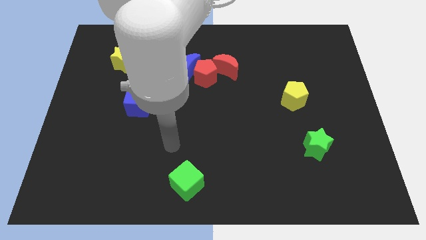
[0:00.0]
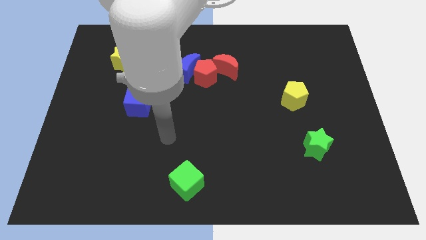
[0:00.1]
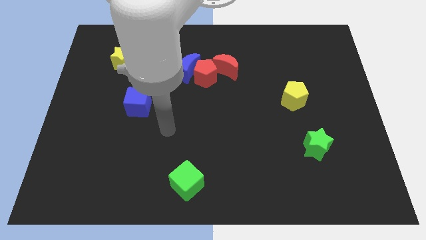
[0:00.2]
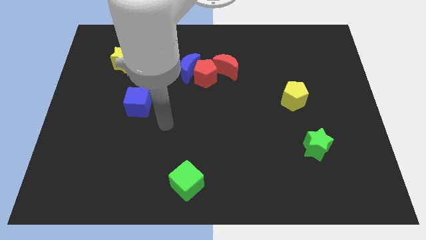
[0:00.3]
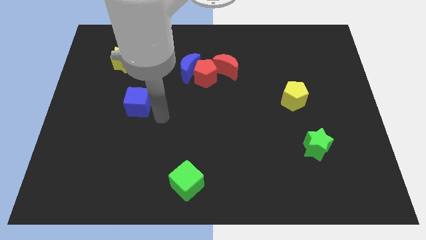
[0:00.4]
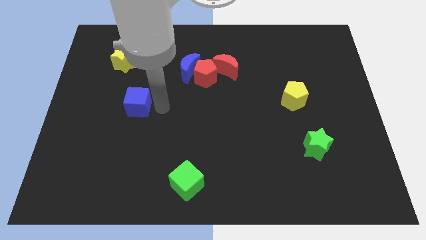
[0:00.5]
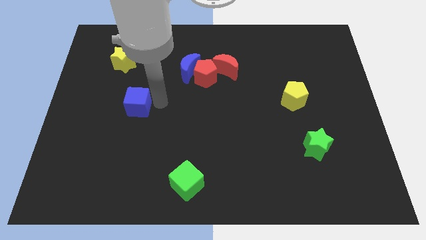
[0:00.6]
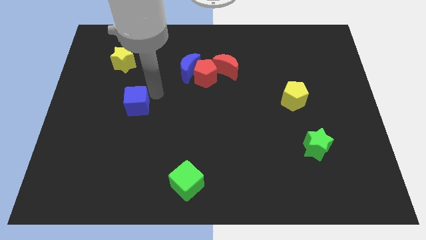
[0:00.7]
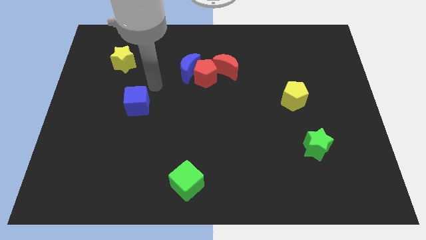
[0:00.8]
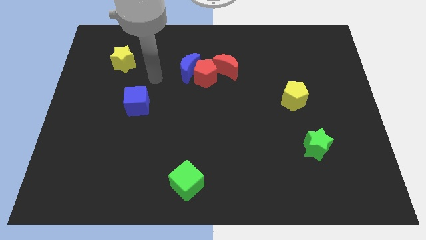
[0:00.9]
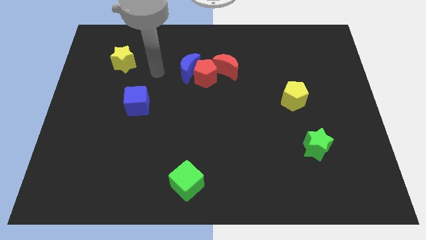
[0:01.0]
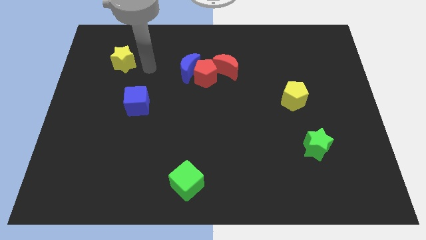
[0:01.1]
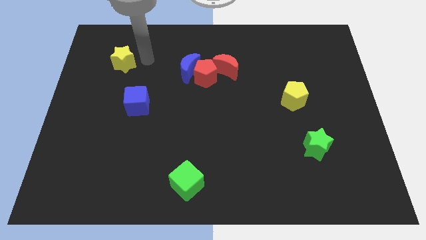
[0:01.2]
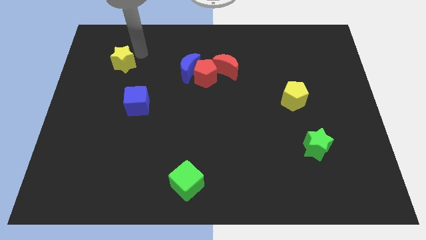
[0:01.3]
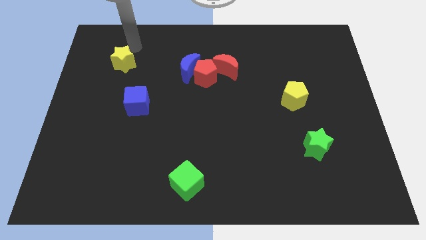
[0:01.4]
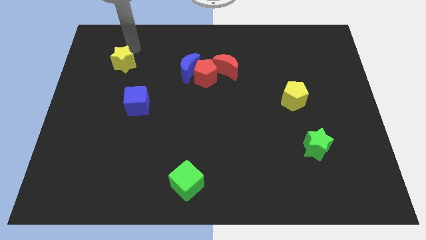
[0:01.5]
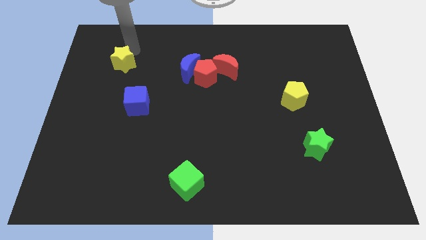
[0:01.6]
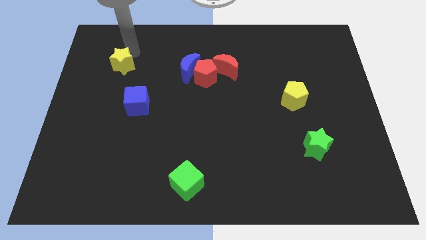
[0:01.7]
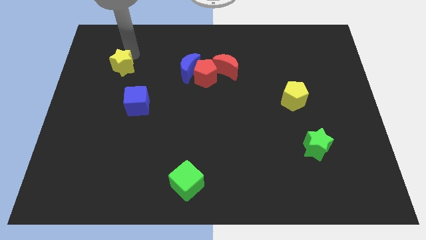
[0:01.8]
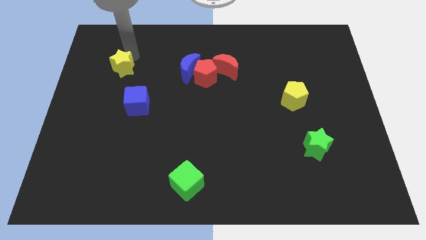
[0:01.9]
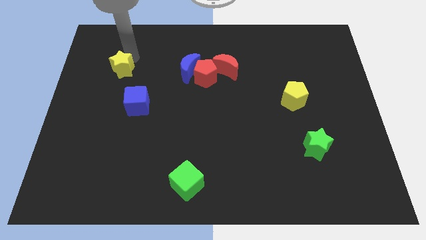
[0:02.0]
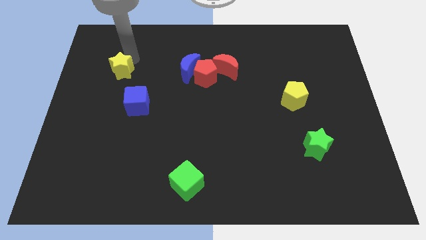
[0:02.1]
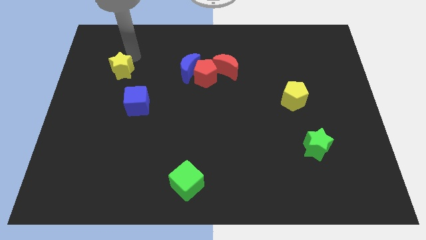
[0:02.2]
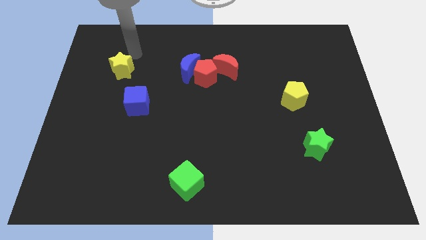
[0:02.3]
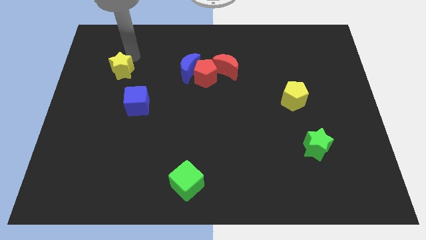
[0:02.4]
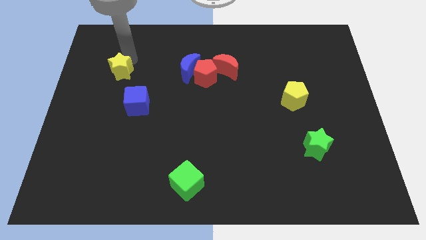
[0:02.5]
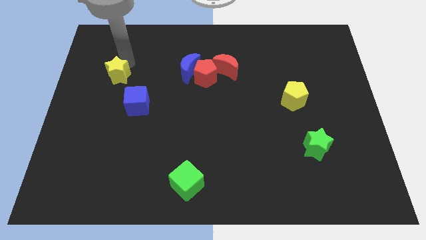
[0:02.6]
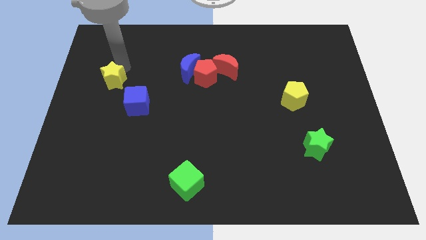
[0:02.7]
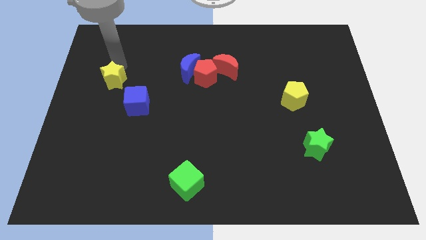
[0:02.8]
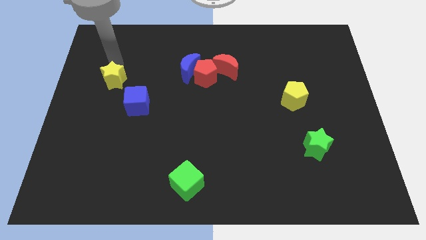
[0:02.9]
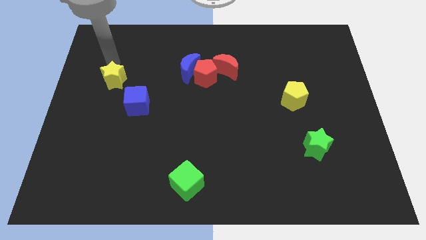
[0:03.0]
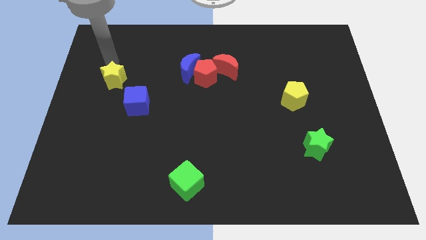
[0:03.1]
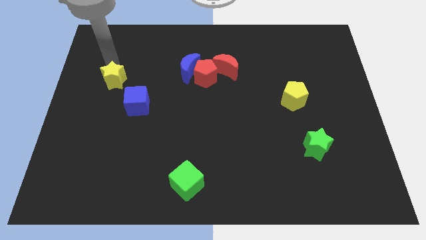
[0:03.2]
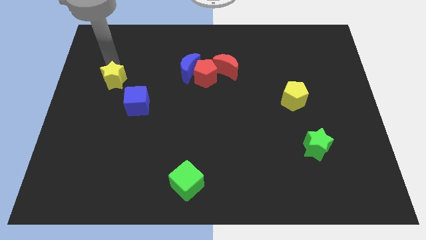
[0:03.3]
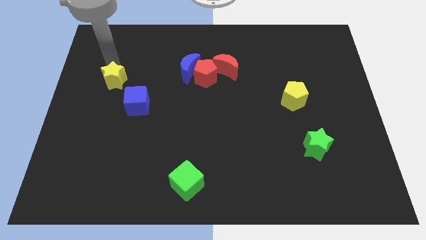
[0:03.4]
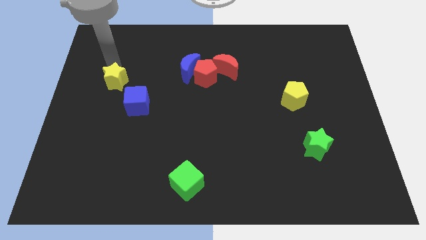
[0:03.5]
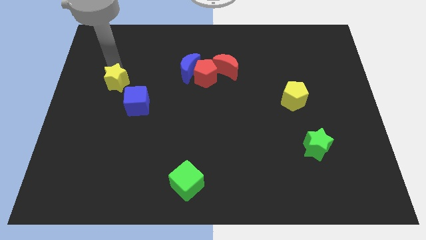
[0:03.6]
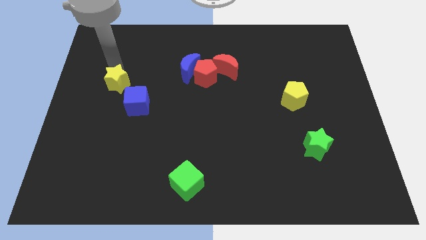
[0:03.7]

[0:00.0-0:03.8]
slide the yellow star downwards a little

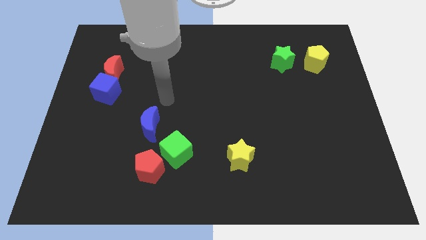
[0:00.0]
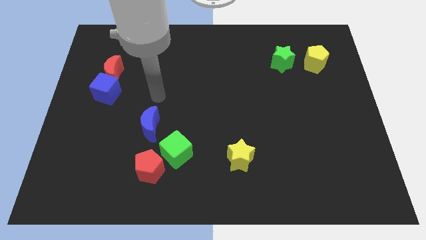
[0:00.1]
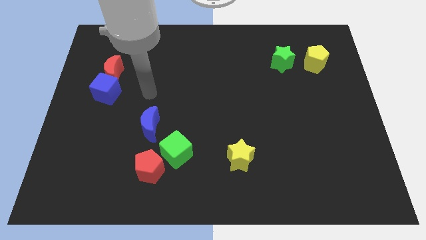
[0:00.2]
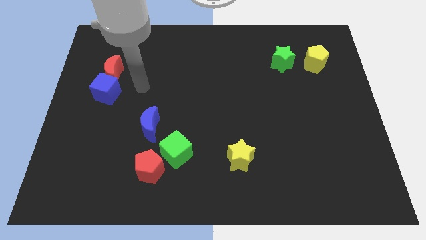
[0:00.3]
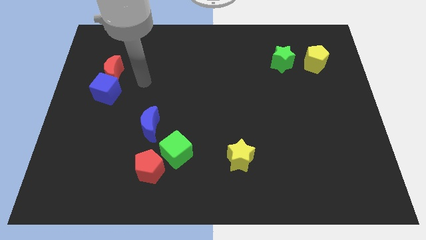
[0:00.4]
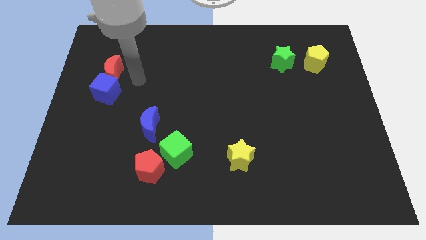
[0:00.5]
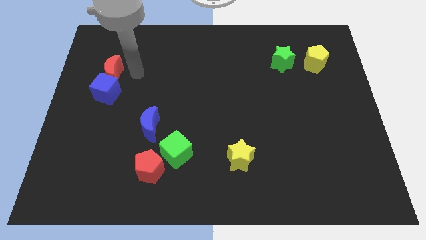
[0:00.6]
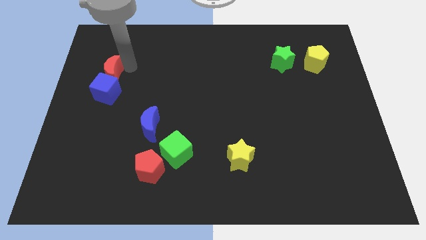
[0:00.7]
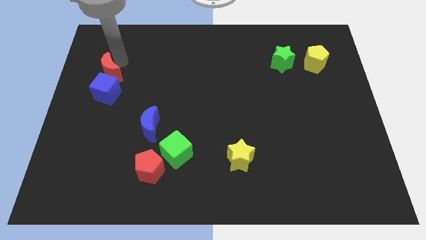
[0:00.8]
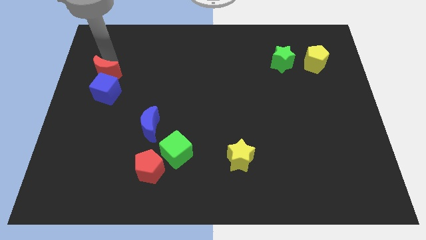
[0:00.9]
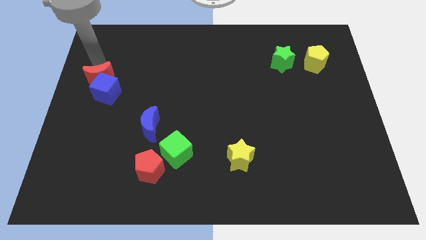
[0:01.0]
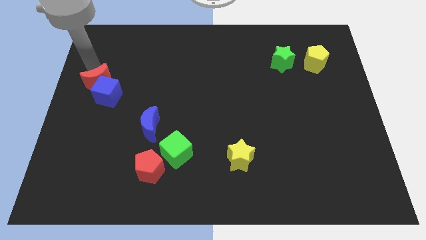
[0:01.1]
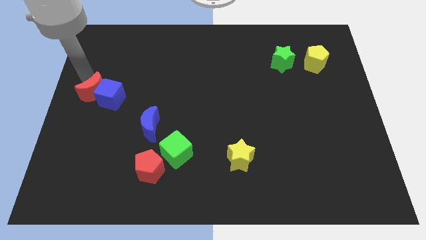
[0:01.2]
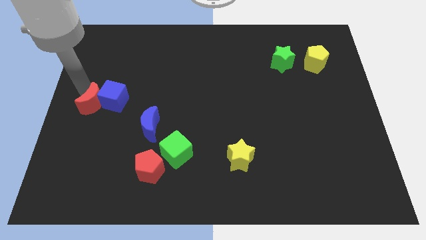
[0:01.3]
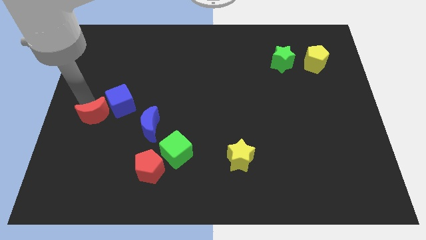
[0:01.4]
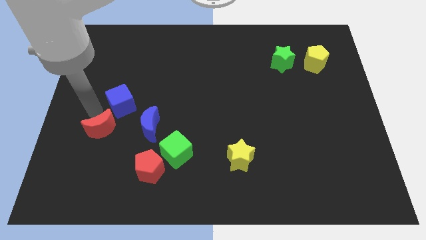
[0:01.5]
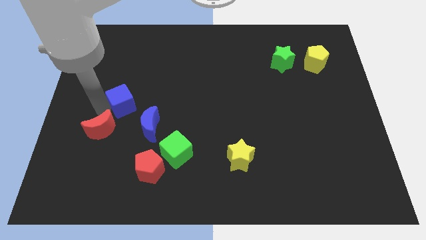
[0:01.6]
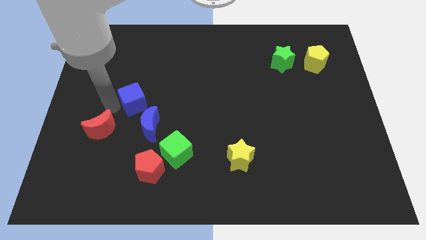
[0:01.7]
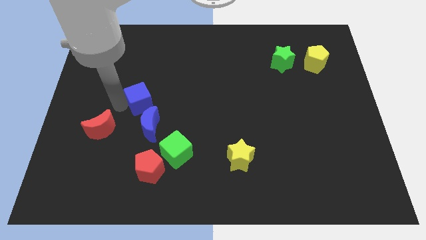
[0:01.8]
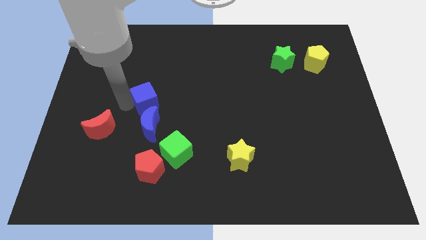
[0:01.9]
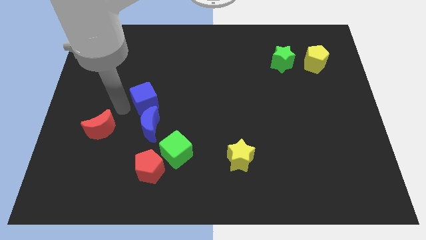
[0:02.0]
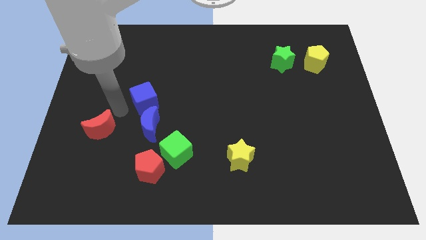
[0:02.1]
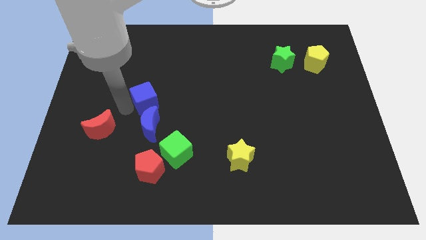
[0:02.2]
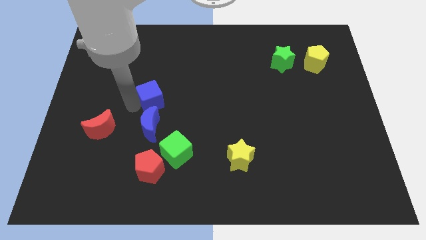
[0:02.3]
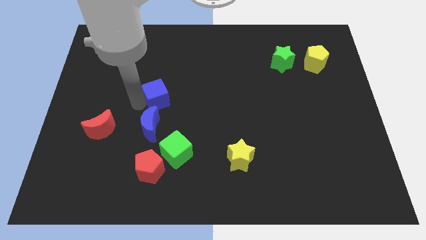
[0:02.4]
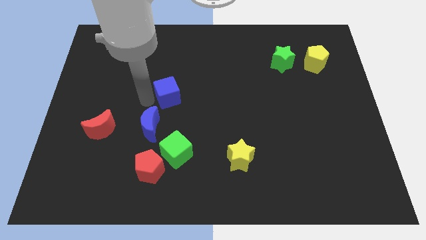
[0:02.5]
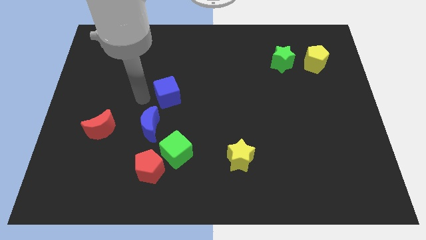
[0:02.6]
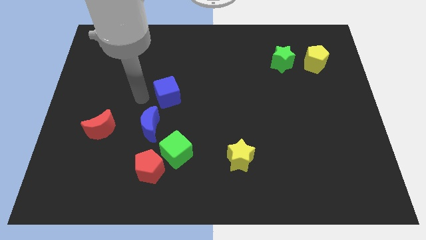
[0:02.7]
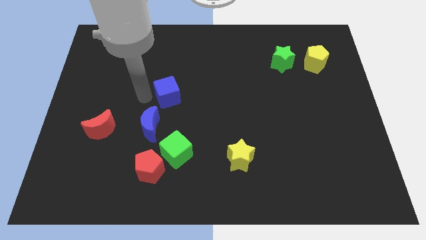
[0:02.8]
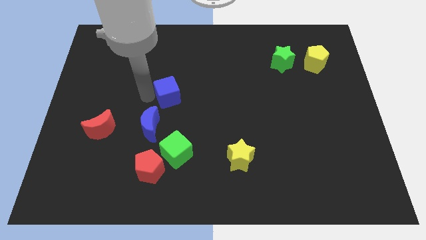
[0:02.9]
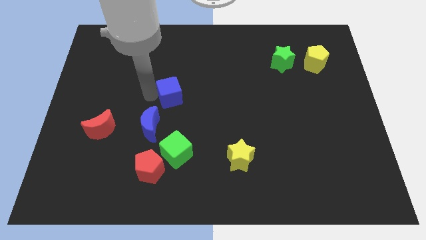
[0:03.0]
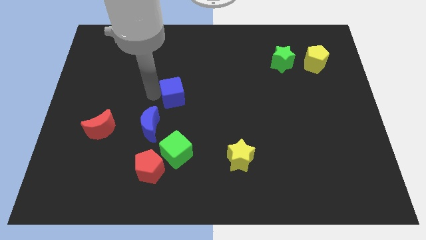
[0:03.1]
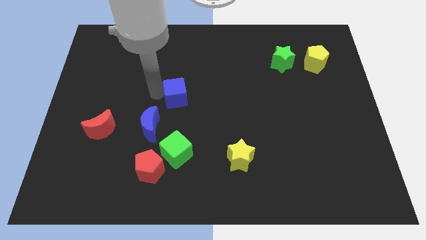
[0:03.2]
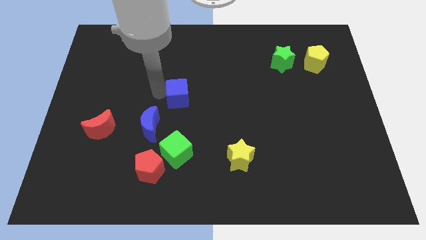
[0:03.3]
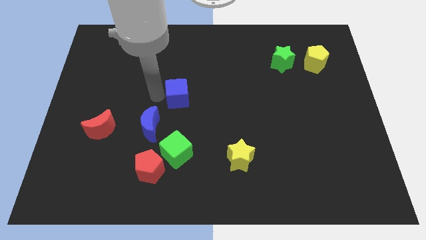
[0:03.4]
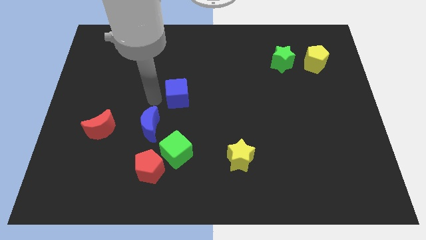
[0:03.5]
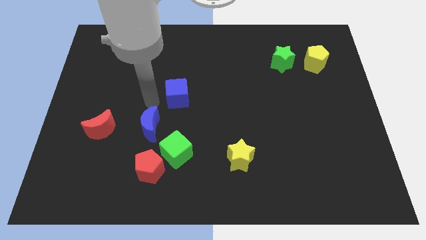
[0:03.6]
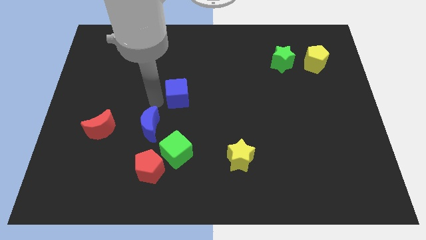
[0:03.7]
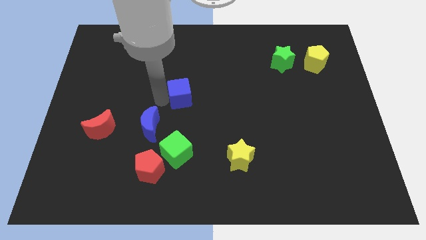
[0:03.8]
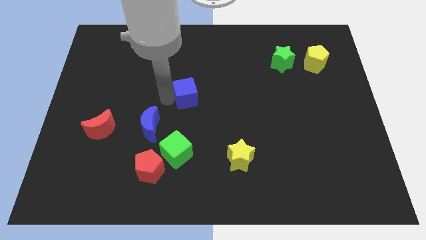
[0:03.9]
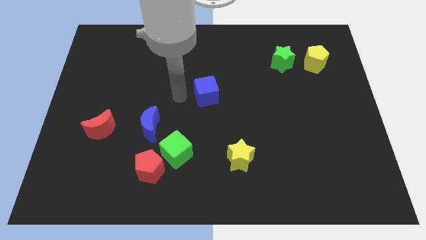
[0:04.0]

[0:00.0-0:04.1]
slide the blue cube to the right
